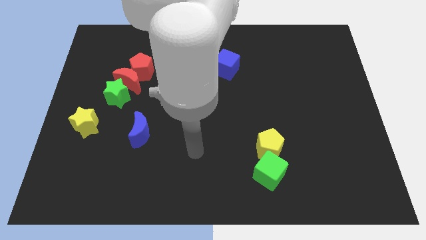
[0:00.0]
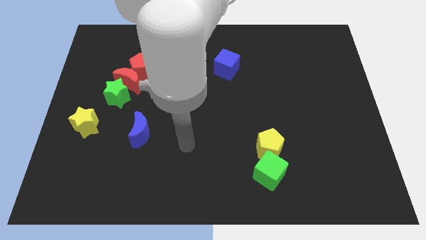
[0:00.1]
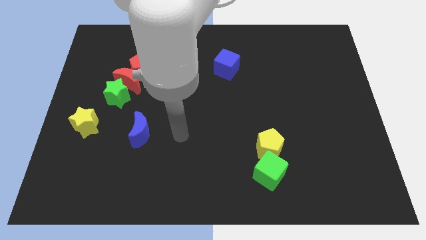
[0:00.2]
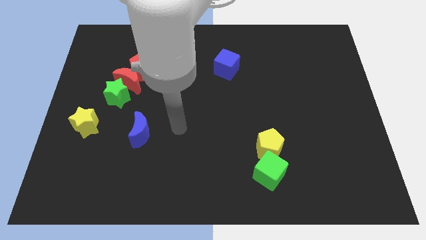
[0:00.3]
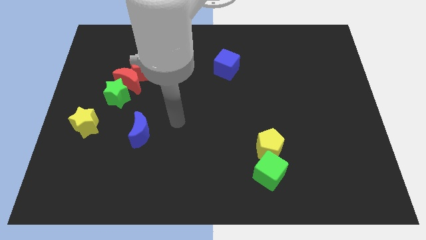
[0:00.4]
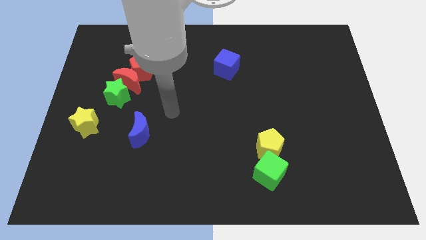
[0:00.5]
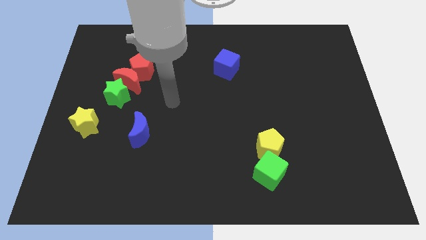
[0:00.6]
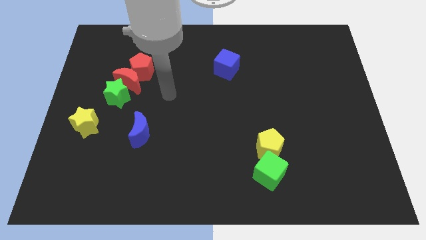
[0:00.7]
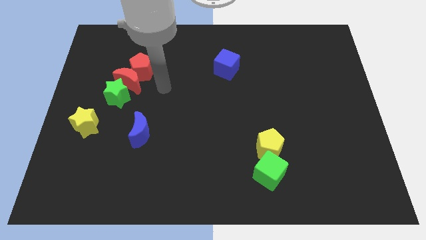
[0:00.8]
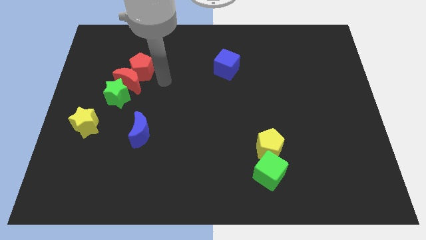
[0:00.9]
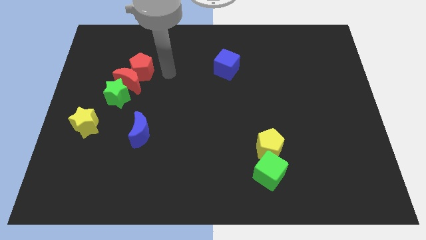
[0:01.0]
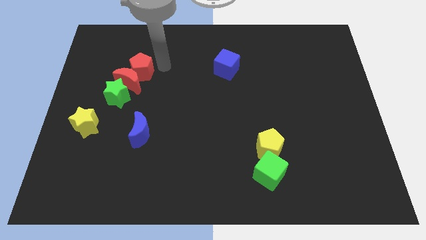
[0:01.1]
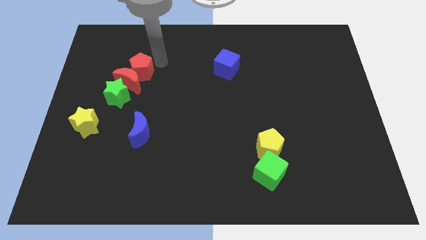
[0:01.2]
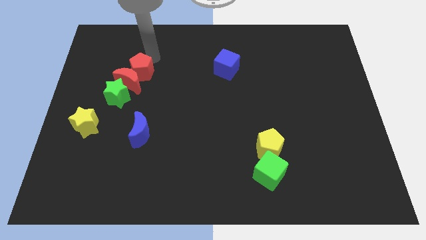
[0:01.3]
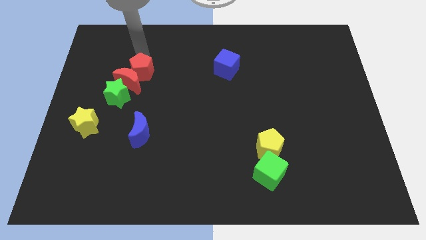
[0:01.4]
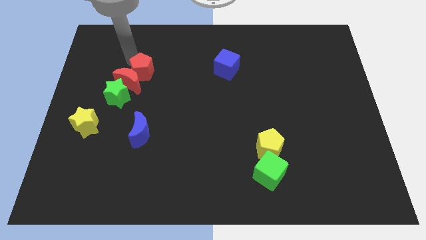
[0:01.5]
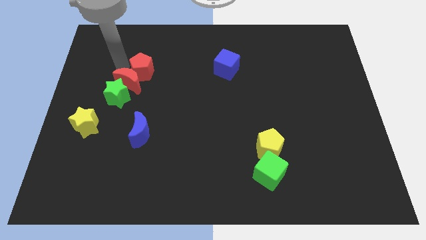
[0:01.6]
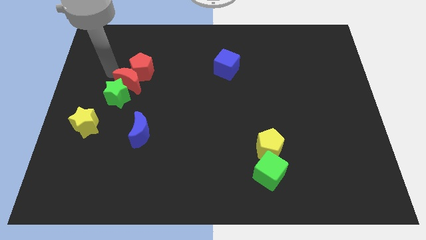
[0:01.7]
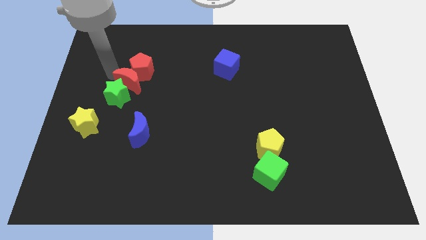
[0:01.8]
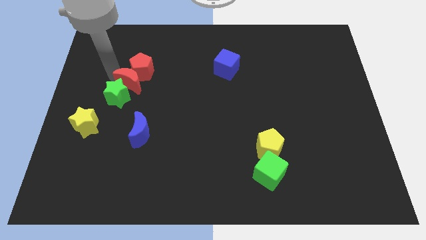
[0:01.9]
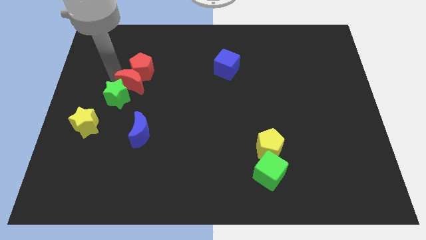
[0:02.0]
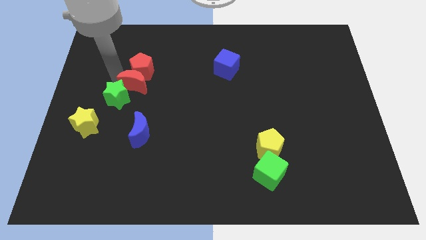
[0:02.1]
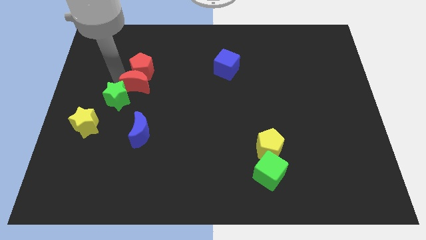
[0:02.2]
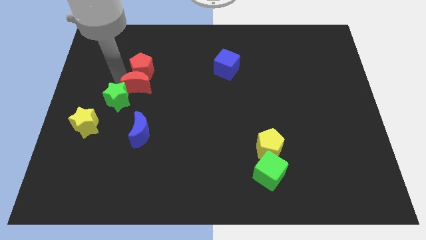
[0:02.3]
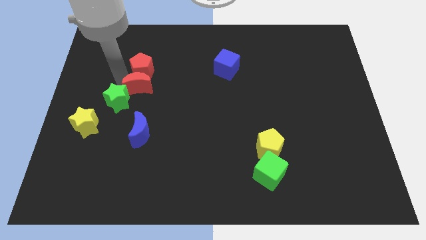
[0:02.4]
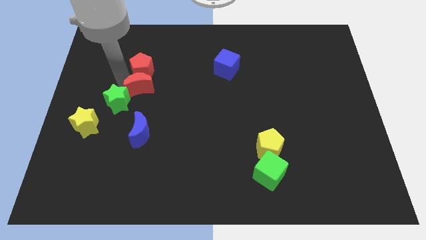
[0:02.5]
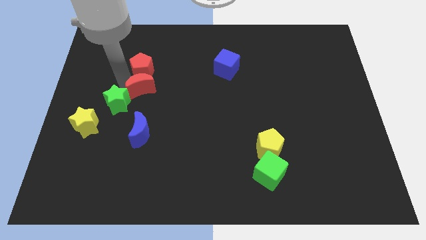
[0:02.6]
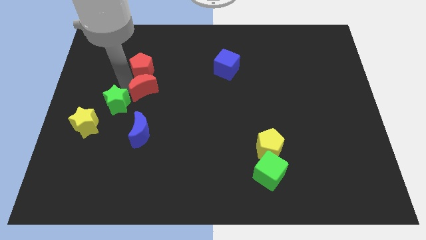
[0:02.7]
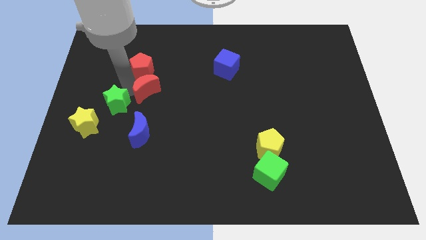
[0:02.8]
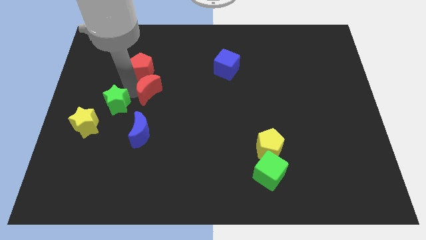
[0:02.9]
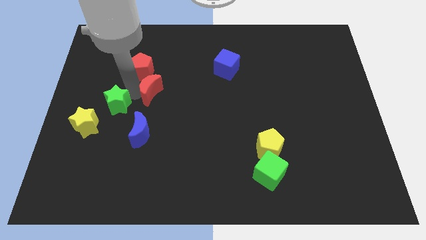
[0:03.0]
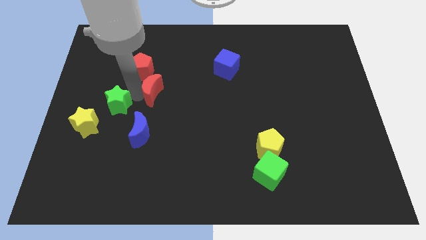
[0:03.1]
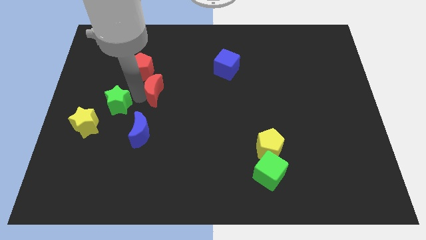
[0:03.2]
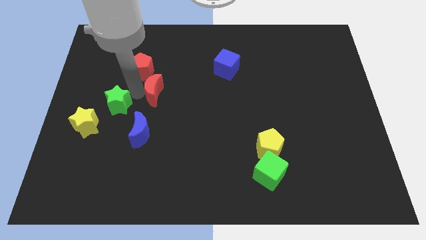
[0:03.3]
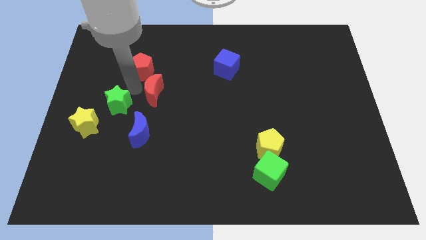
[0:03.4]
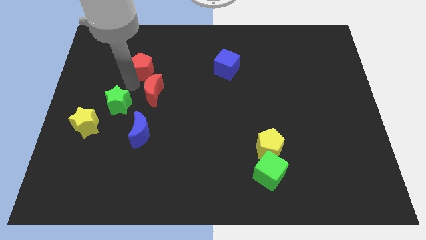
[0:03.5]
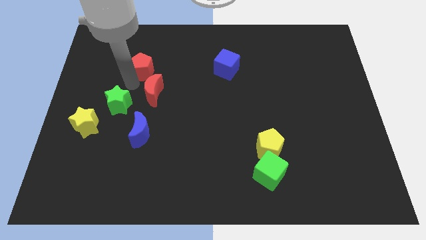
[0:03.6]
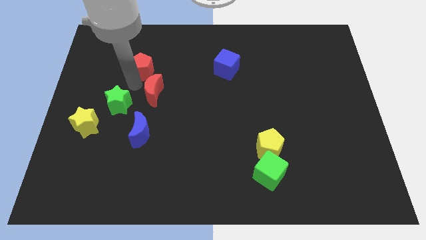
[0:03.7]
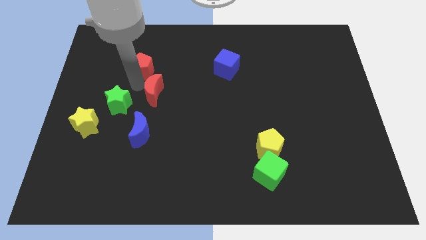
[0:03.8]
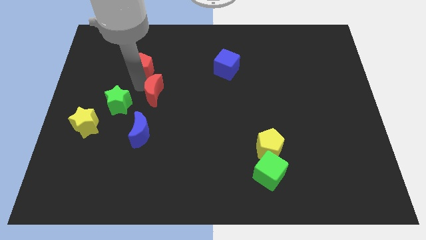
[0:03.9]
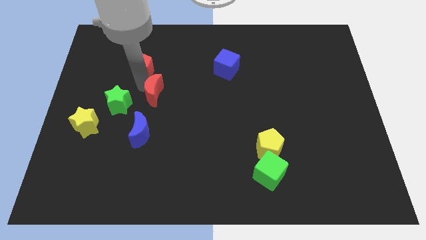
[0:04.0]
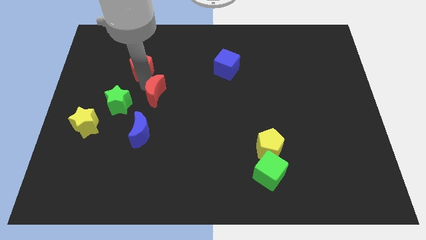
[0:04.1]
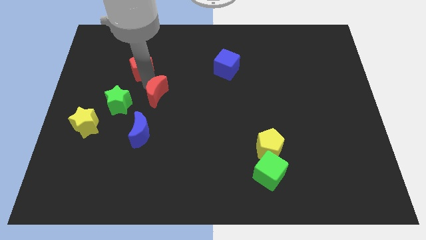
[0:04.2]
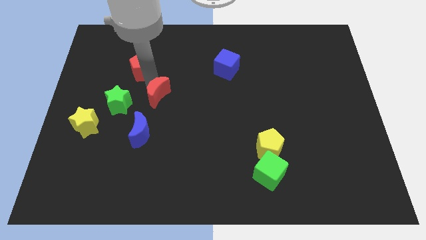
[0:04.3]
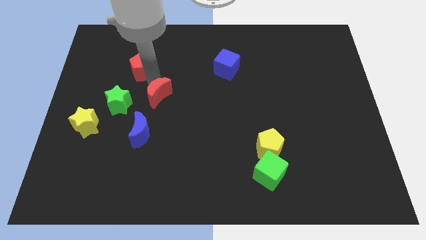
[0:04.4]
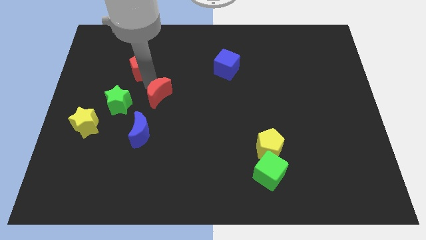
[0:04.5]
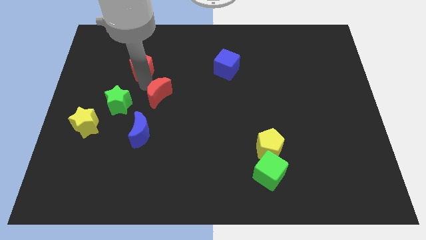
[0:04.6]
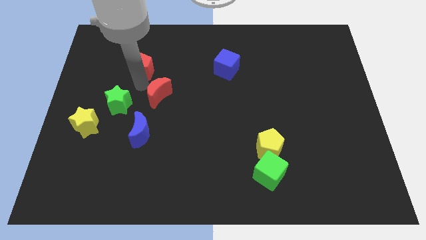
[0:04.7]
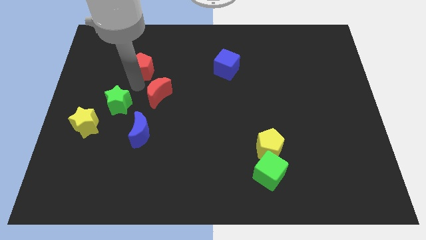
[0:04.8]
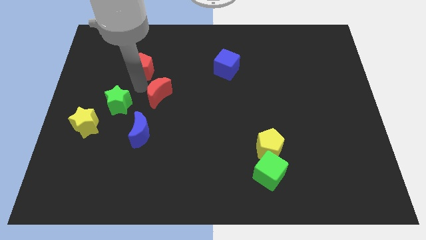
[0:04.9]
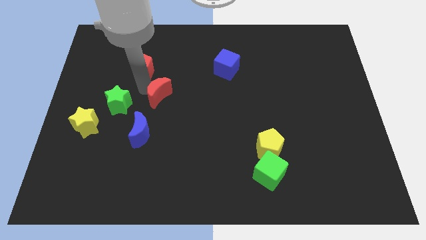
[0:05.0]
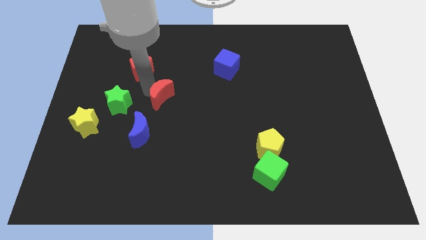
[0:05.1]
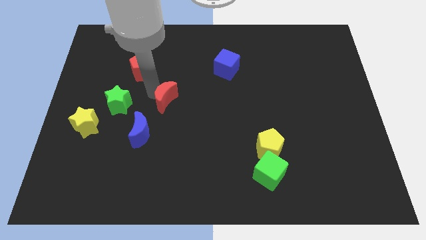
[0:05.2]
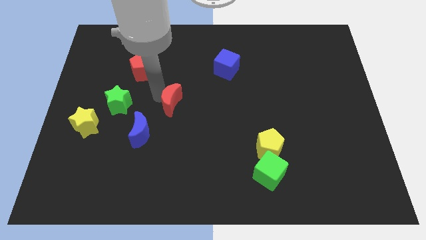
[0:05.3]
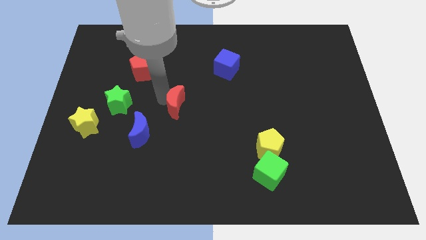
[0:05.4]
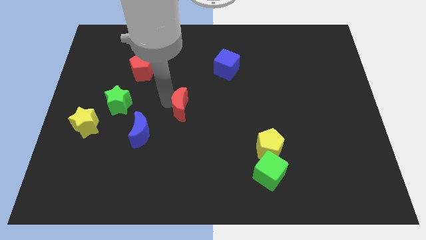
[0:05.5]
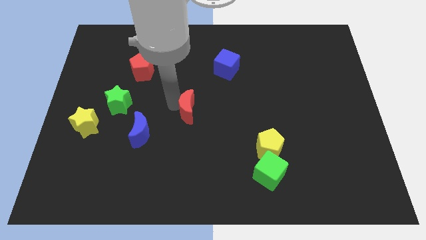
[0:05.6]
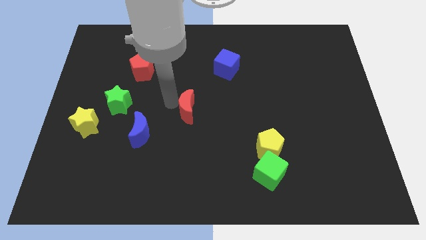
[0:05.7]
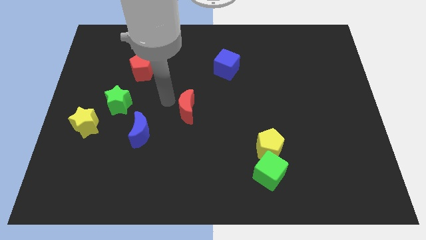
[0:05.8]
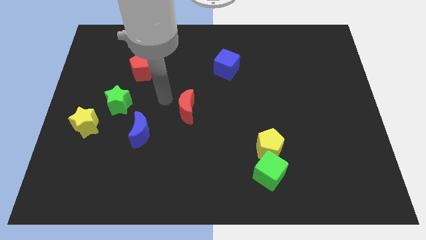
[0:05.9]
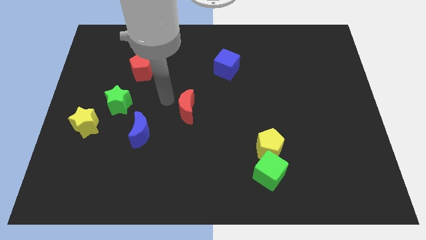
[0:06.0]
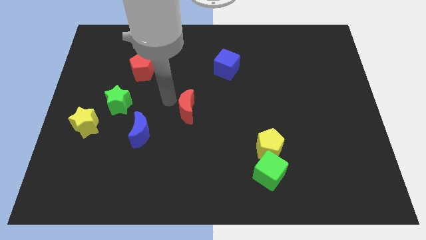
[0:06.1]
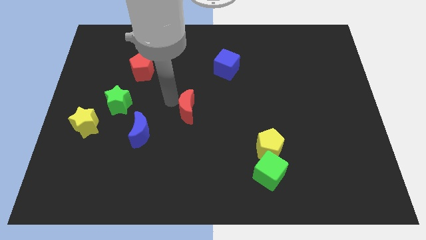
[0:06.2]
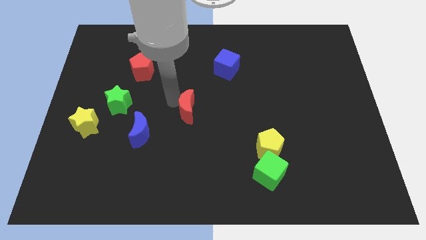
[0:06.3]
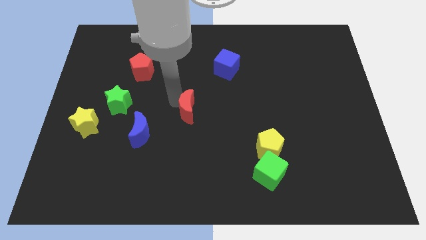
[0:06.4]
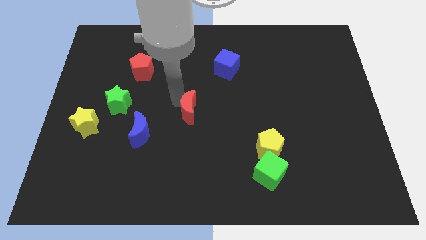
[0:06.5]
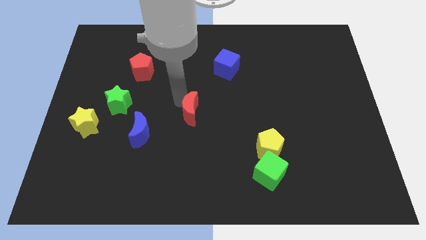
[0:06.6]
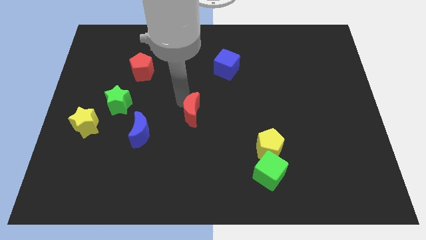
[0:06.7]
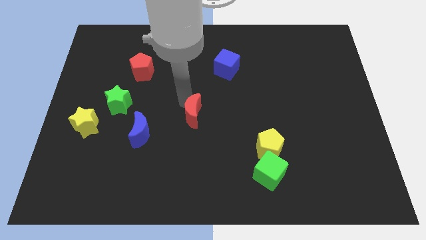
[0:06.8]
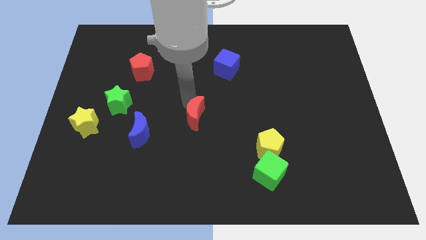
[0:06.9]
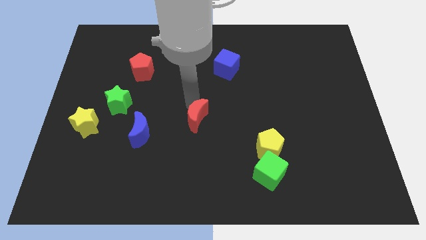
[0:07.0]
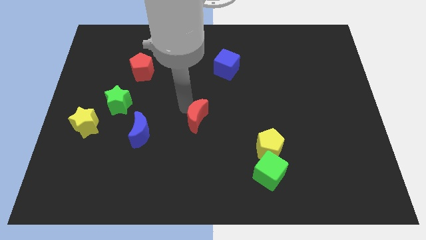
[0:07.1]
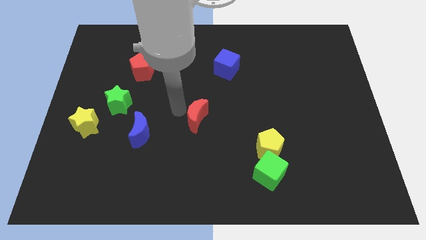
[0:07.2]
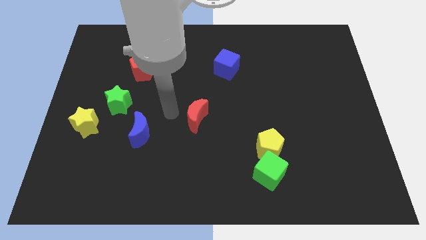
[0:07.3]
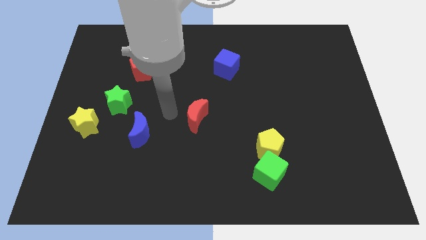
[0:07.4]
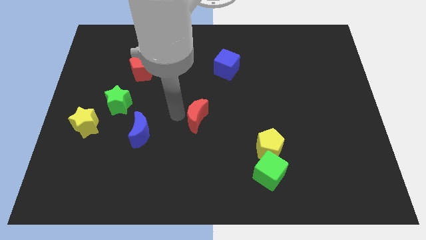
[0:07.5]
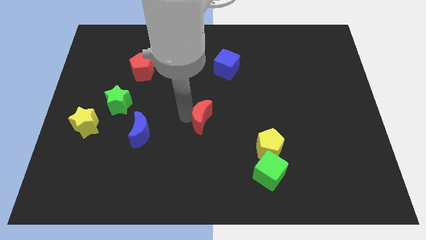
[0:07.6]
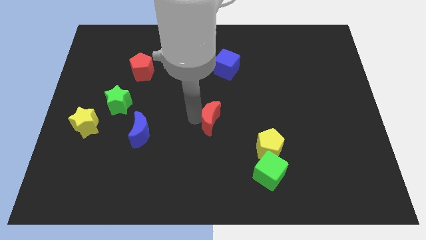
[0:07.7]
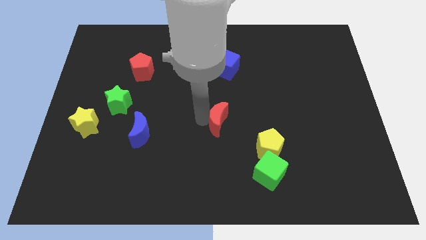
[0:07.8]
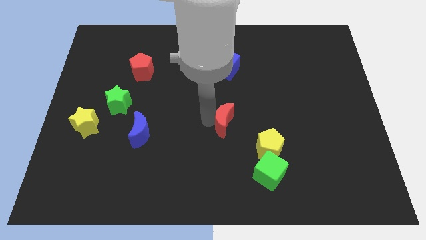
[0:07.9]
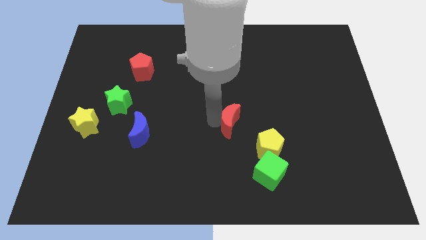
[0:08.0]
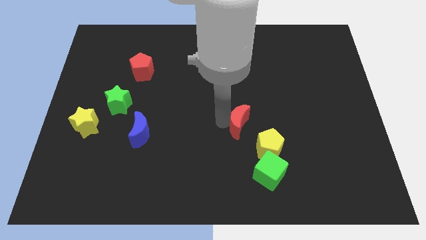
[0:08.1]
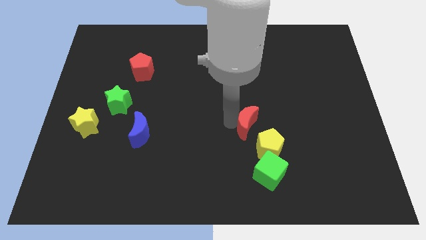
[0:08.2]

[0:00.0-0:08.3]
move the red moon above the green cube
